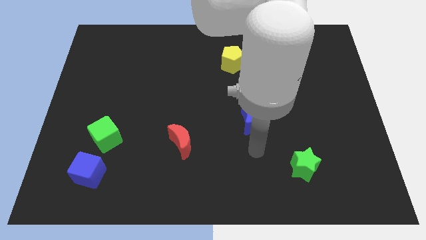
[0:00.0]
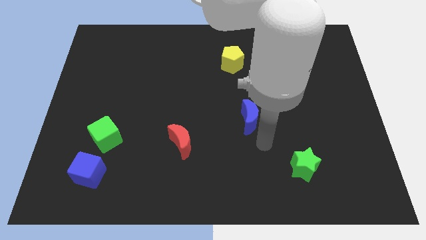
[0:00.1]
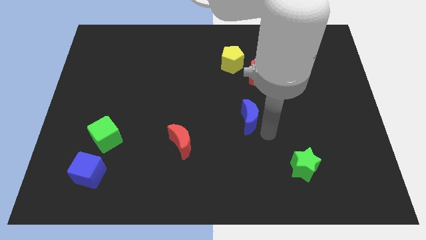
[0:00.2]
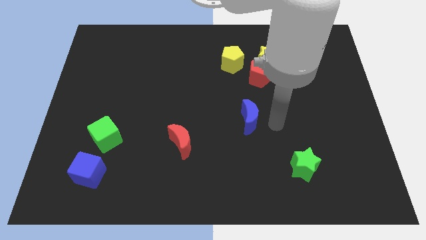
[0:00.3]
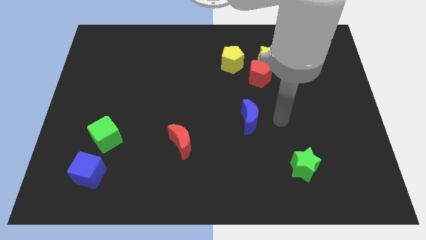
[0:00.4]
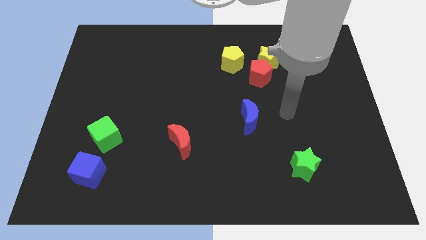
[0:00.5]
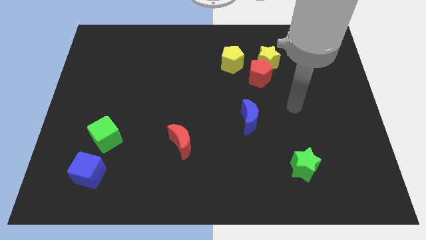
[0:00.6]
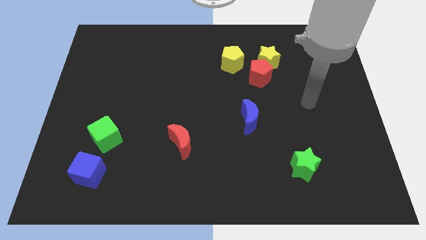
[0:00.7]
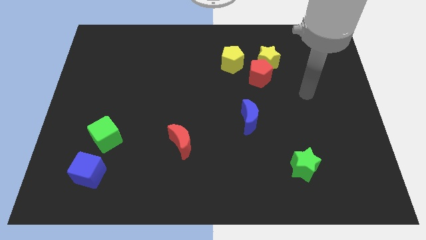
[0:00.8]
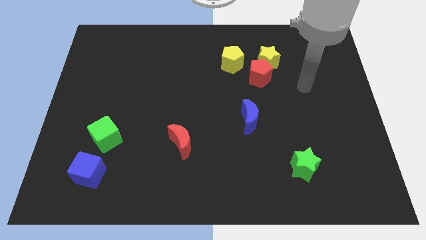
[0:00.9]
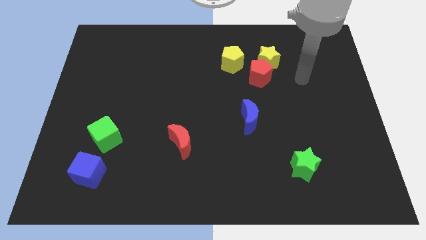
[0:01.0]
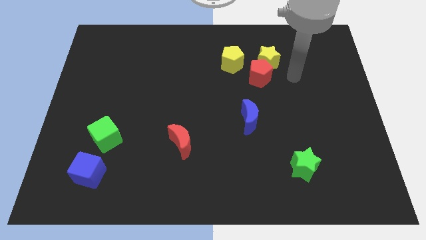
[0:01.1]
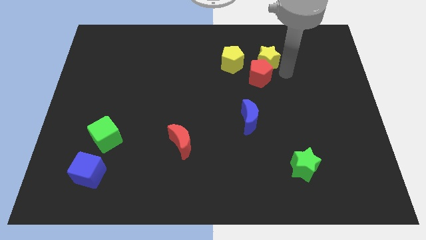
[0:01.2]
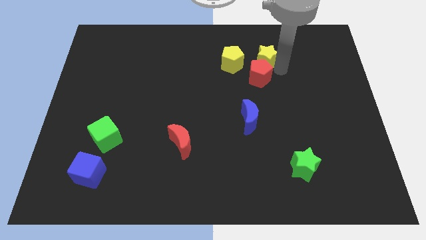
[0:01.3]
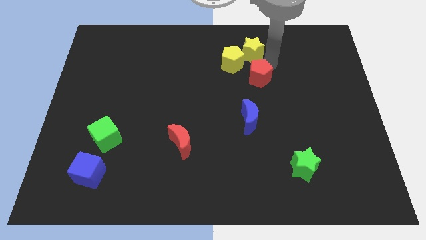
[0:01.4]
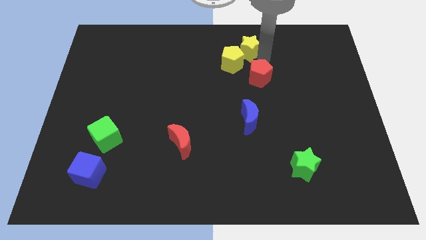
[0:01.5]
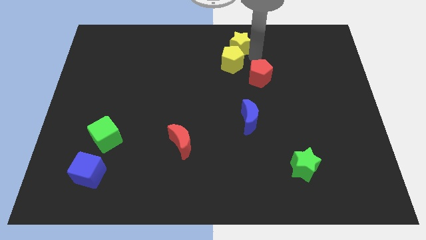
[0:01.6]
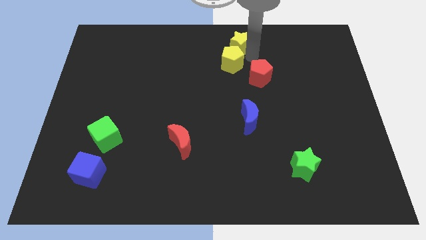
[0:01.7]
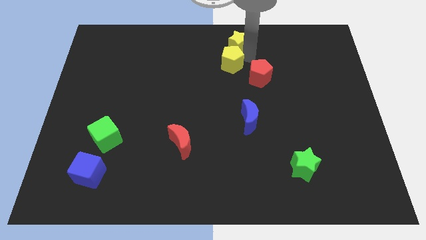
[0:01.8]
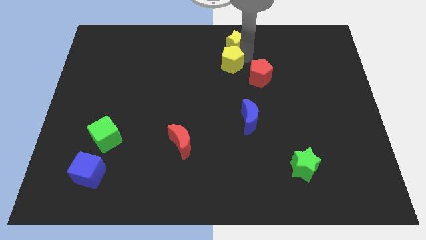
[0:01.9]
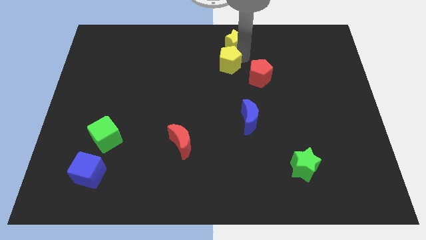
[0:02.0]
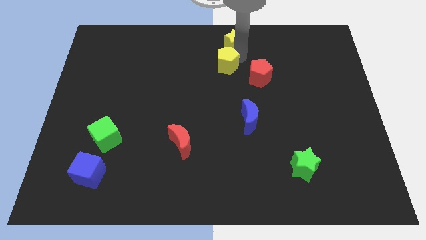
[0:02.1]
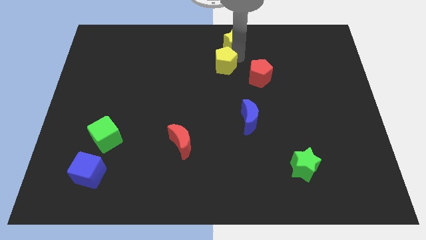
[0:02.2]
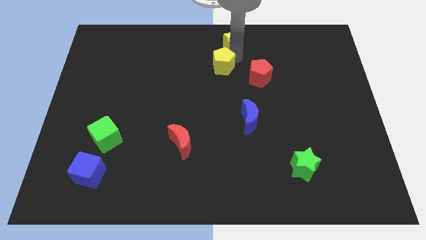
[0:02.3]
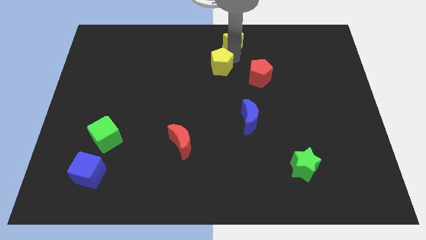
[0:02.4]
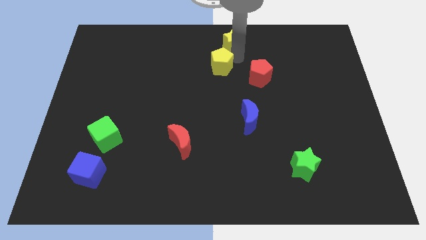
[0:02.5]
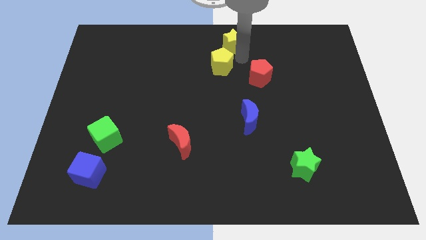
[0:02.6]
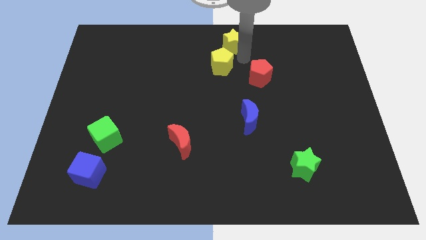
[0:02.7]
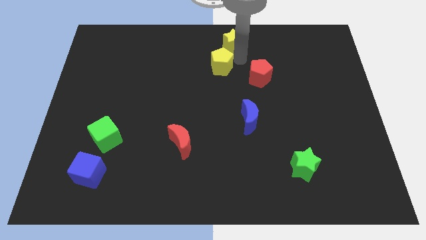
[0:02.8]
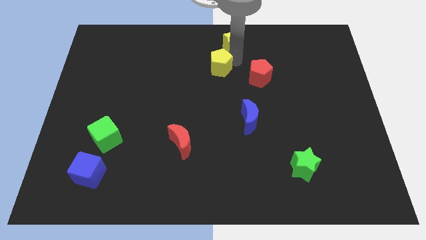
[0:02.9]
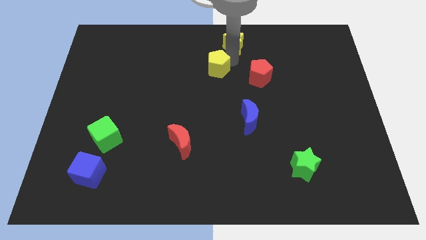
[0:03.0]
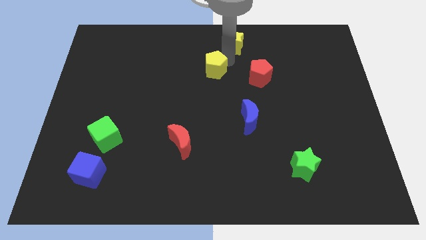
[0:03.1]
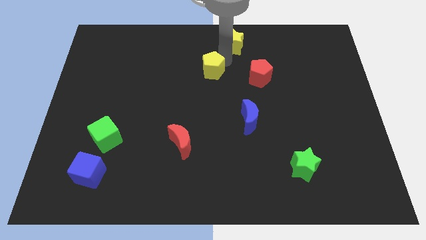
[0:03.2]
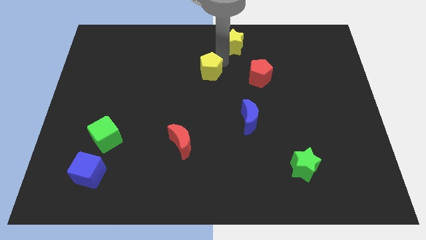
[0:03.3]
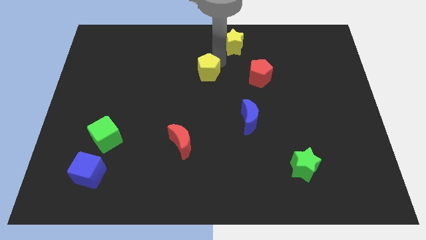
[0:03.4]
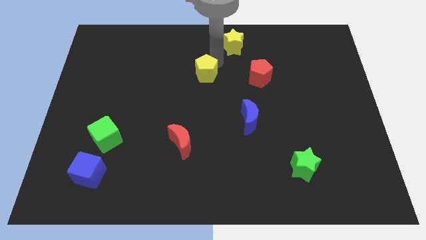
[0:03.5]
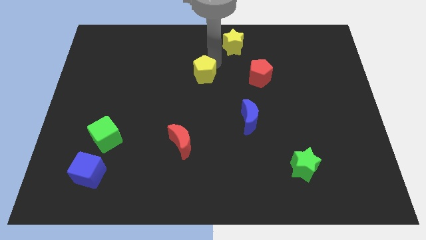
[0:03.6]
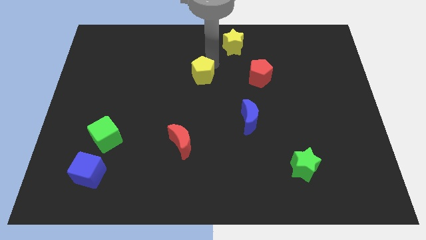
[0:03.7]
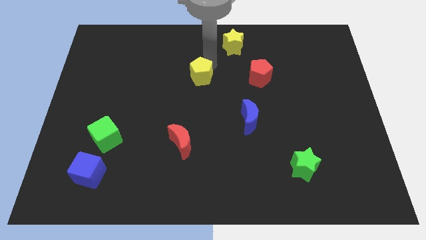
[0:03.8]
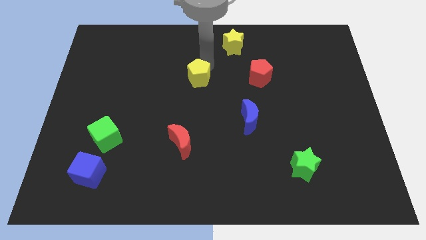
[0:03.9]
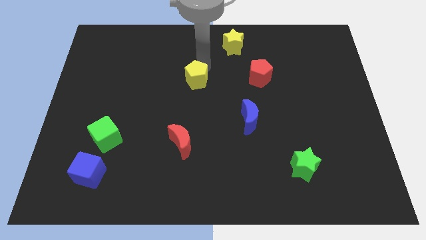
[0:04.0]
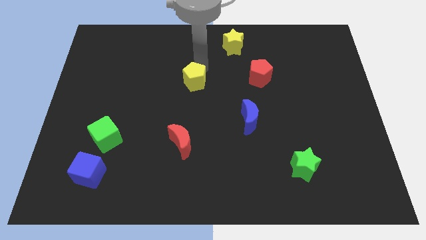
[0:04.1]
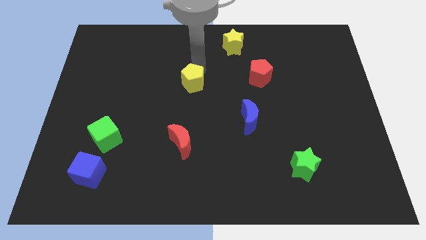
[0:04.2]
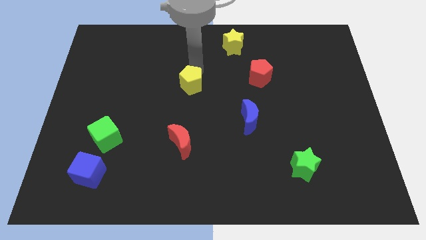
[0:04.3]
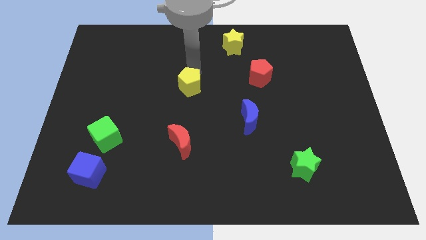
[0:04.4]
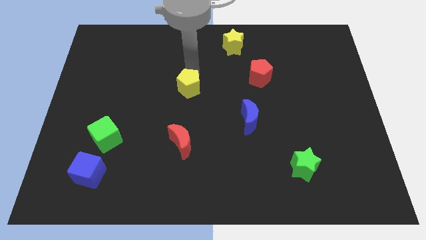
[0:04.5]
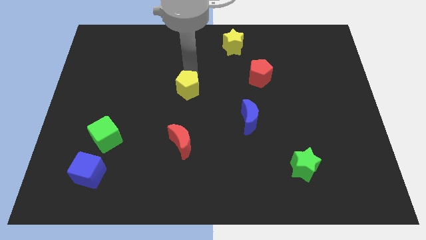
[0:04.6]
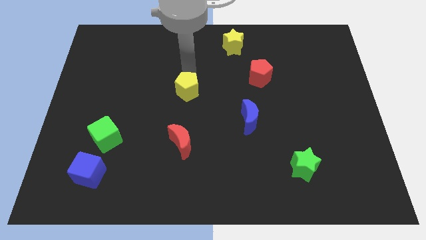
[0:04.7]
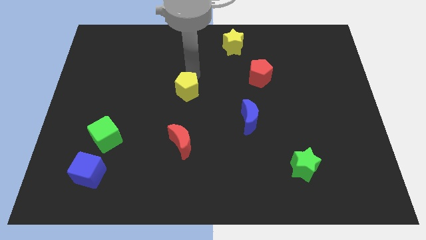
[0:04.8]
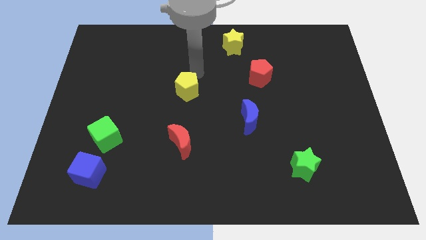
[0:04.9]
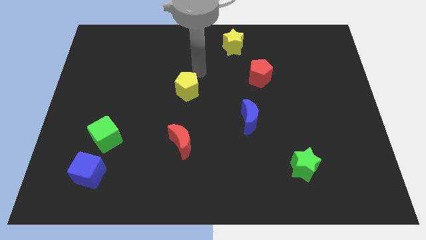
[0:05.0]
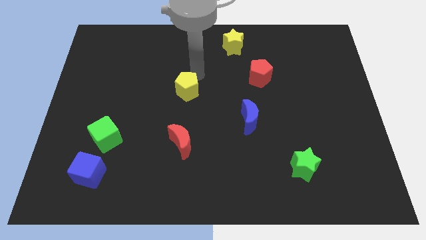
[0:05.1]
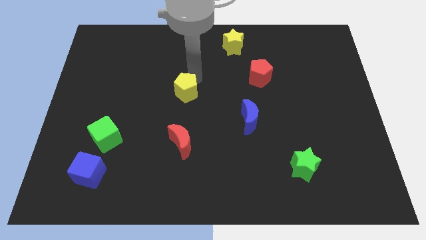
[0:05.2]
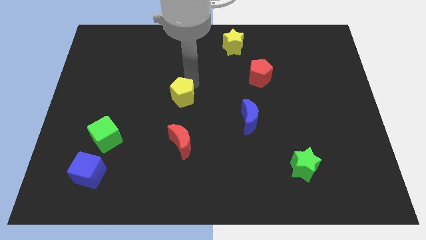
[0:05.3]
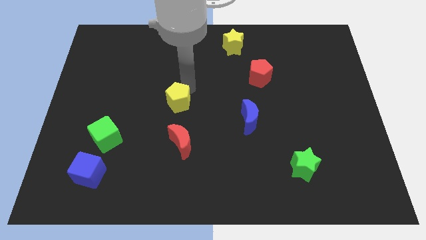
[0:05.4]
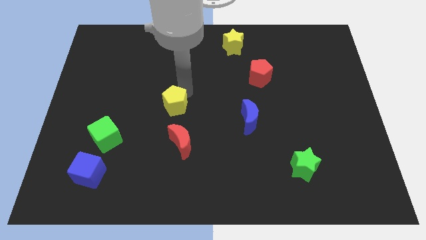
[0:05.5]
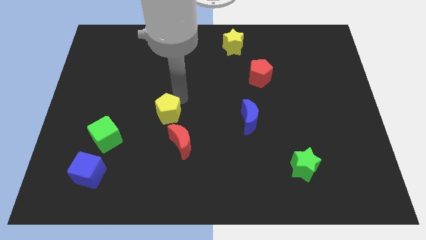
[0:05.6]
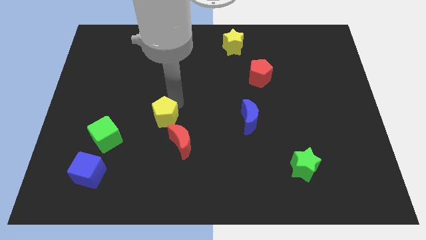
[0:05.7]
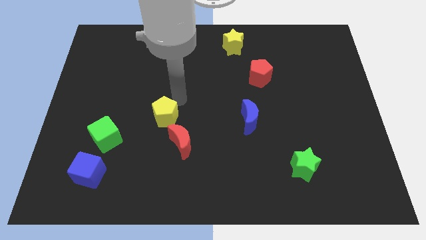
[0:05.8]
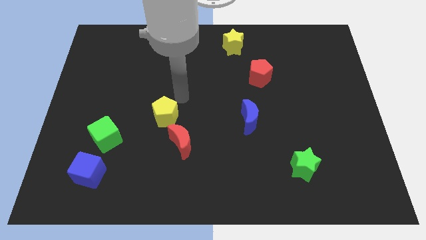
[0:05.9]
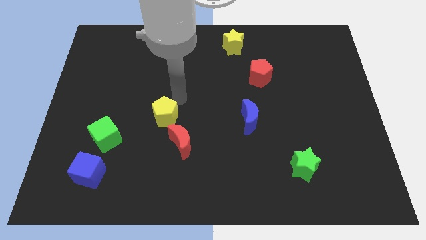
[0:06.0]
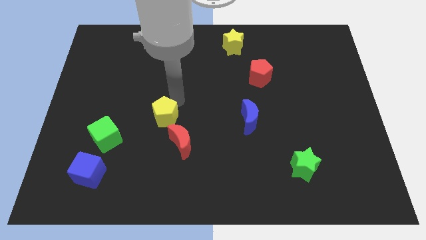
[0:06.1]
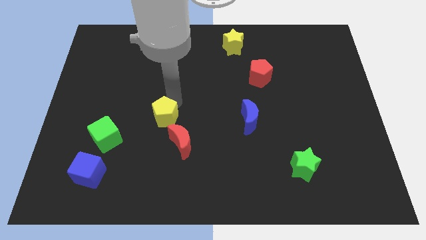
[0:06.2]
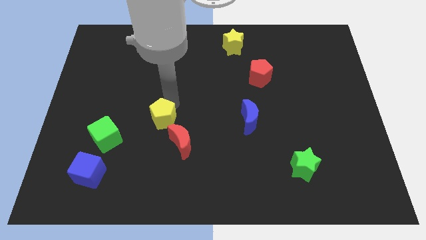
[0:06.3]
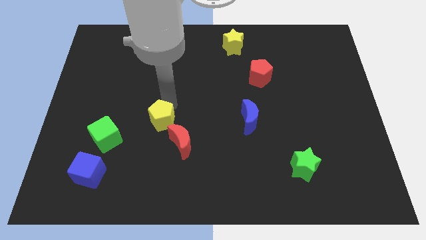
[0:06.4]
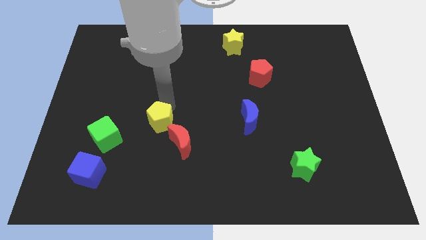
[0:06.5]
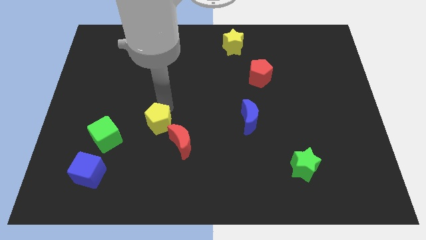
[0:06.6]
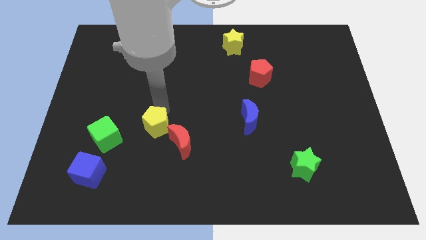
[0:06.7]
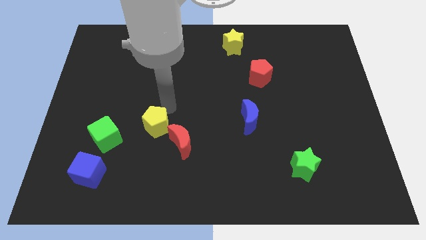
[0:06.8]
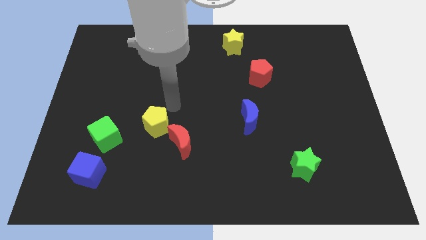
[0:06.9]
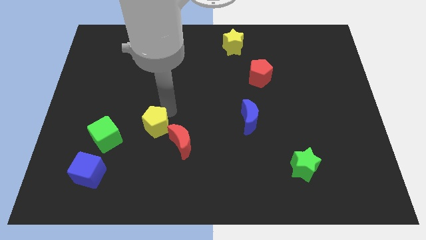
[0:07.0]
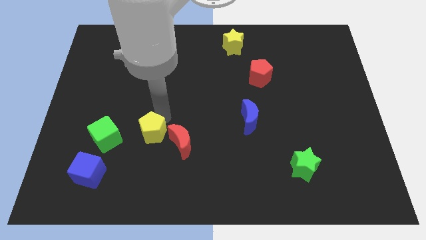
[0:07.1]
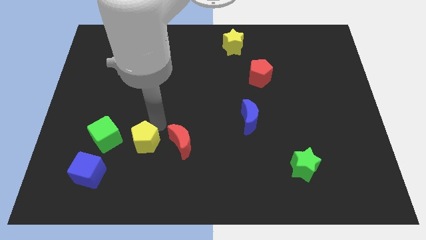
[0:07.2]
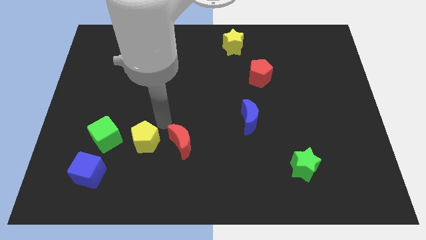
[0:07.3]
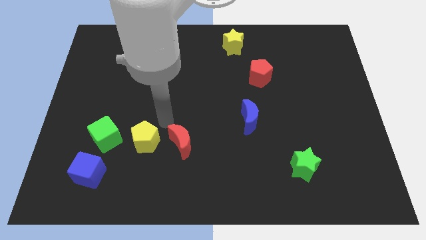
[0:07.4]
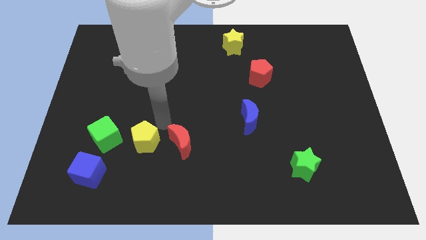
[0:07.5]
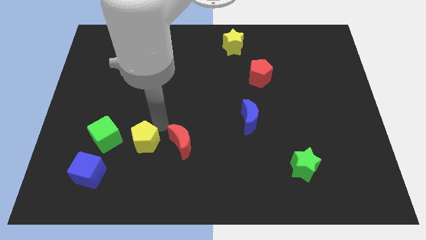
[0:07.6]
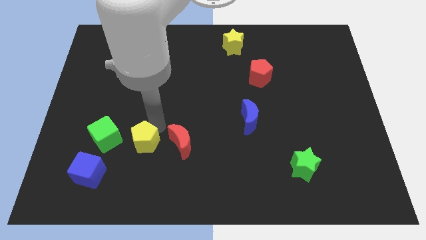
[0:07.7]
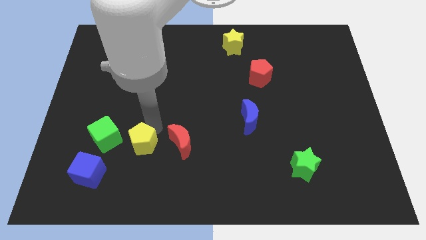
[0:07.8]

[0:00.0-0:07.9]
push the yellow pentagon to the bottom right side of the green cube

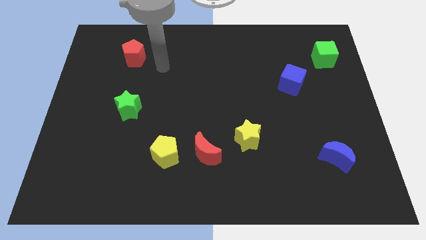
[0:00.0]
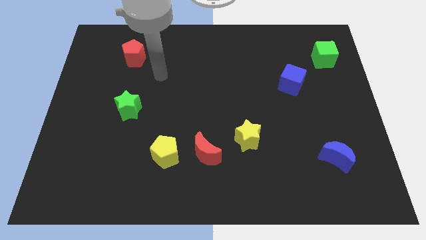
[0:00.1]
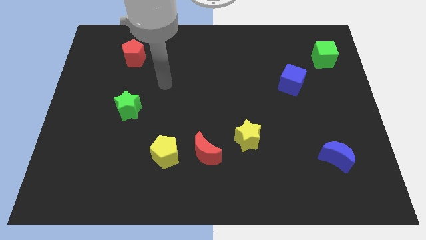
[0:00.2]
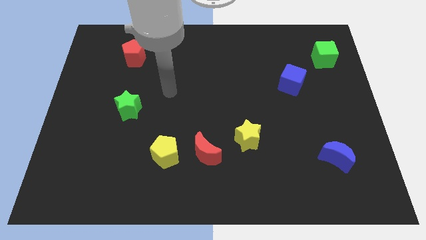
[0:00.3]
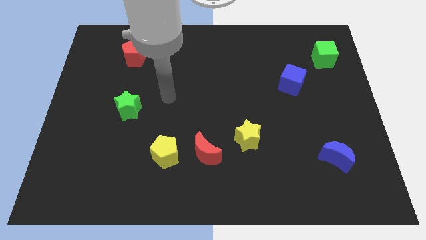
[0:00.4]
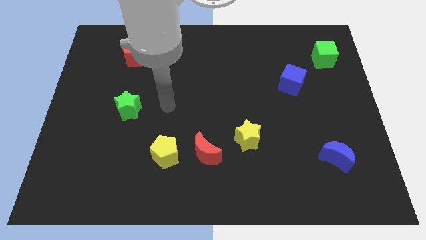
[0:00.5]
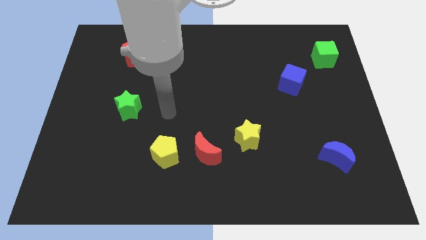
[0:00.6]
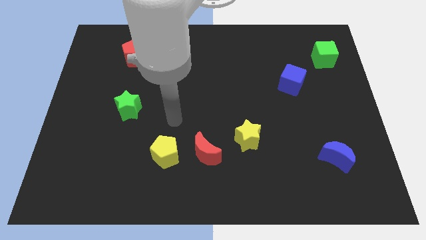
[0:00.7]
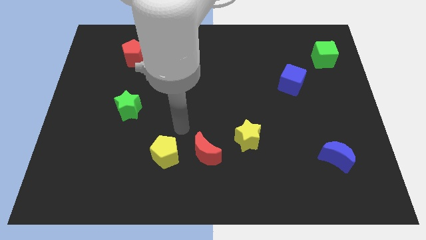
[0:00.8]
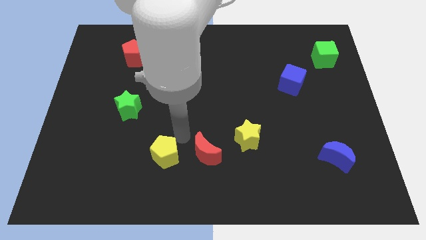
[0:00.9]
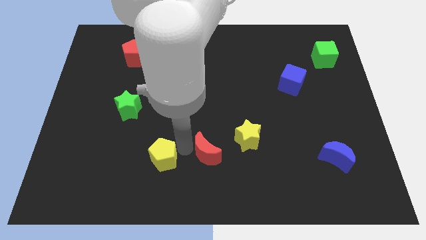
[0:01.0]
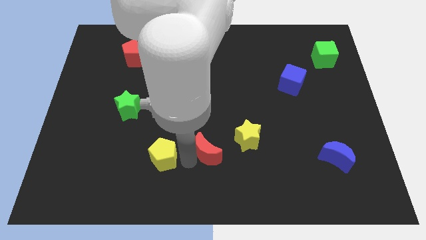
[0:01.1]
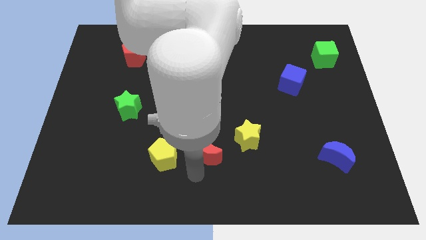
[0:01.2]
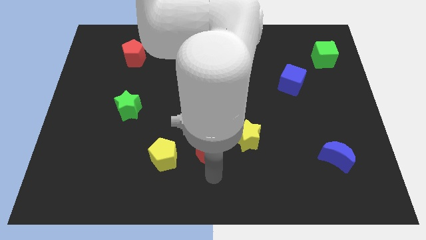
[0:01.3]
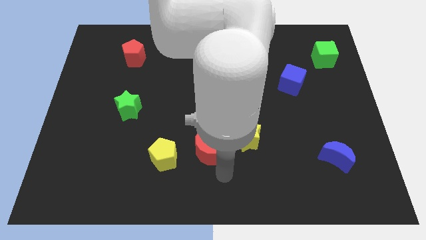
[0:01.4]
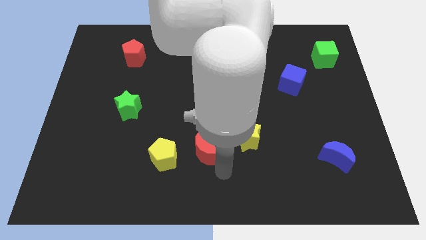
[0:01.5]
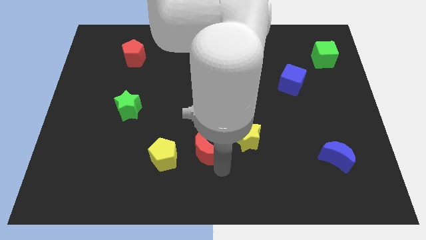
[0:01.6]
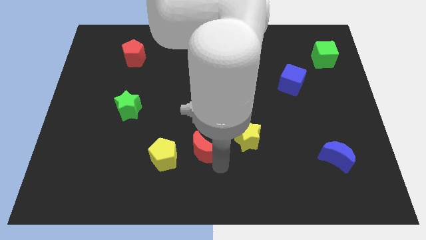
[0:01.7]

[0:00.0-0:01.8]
put the red moon diagonally up and to the right of the yellow pentagon
